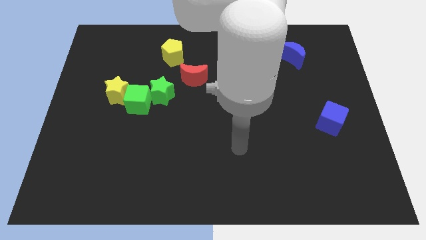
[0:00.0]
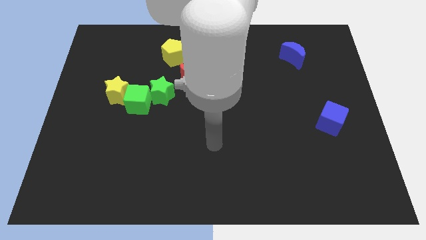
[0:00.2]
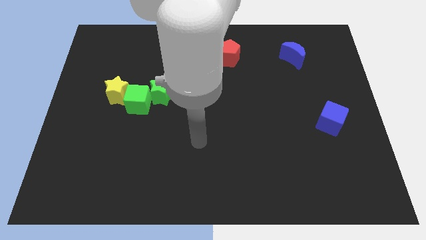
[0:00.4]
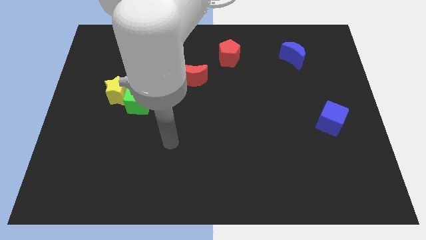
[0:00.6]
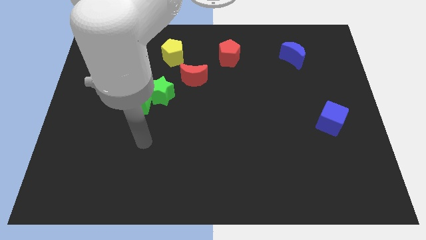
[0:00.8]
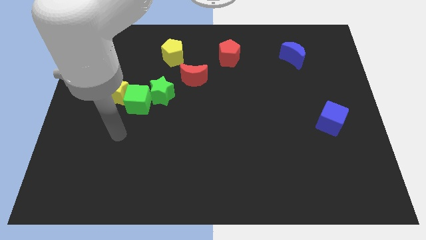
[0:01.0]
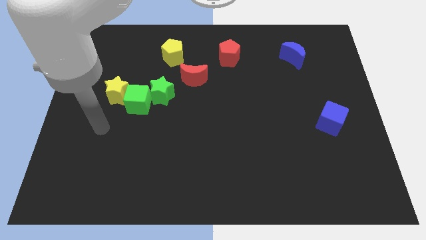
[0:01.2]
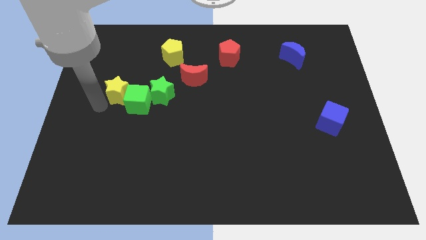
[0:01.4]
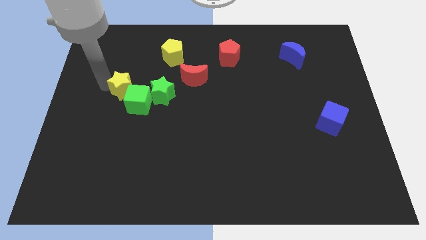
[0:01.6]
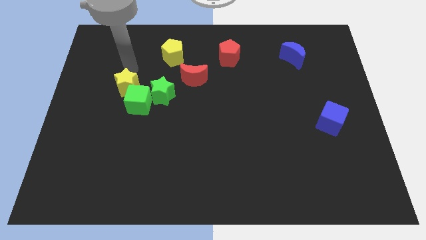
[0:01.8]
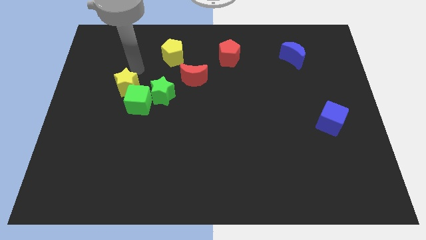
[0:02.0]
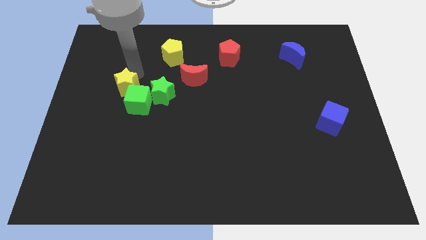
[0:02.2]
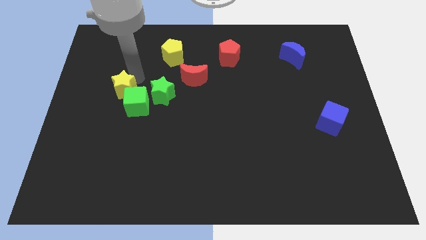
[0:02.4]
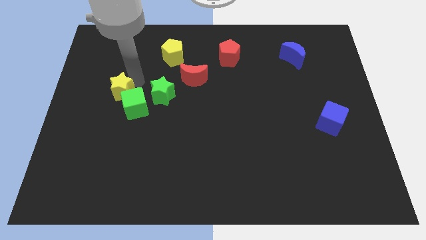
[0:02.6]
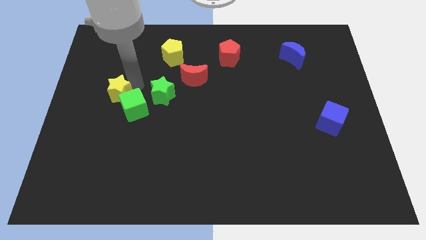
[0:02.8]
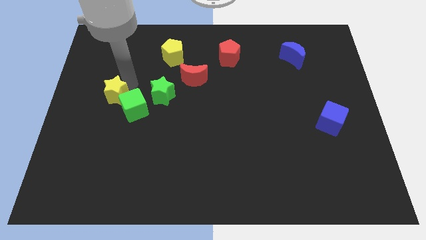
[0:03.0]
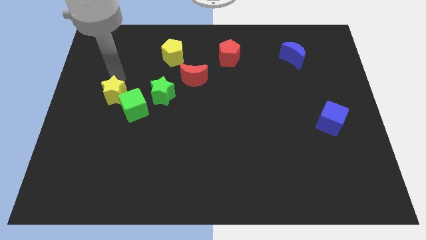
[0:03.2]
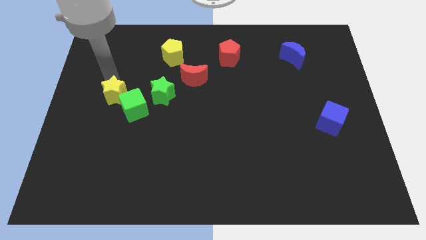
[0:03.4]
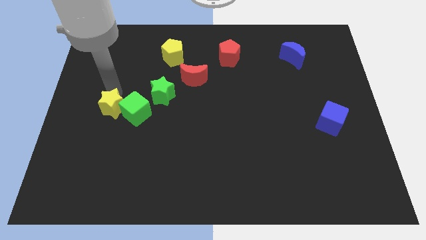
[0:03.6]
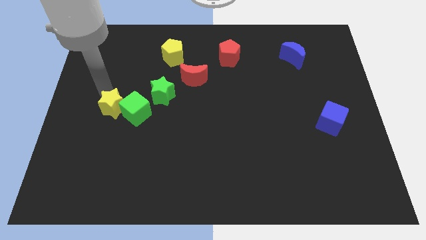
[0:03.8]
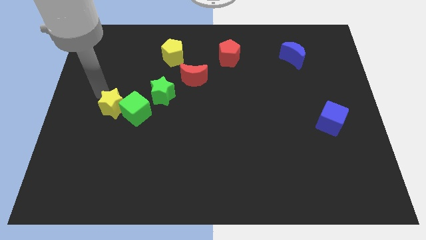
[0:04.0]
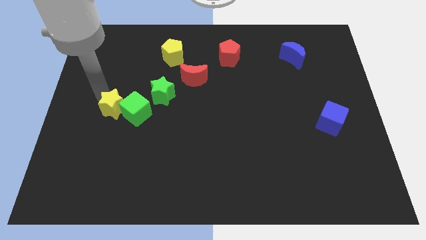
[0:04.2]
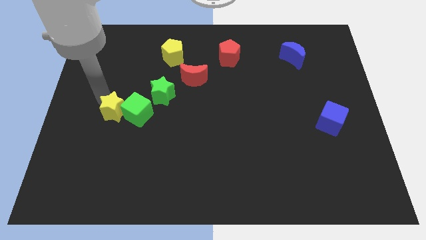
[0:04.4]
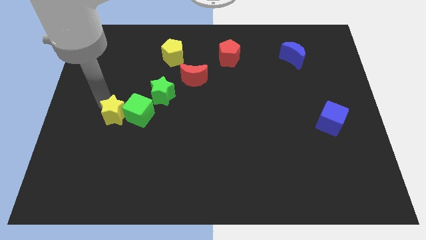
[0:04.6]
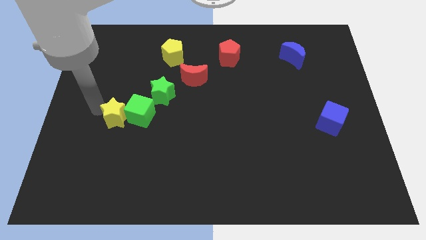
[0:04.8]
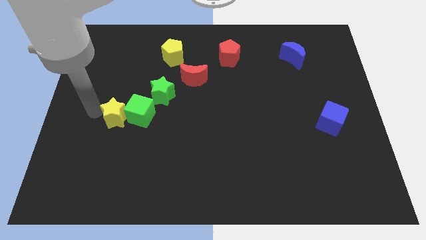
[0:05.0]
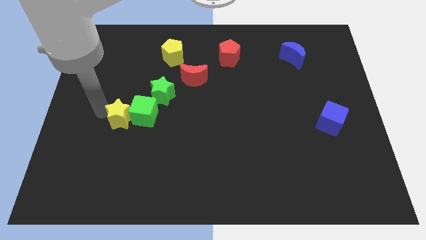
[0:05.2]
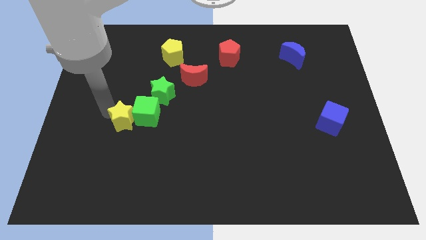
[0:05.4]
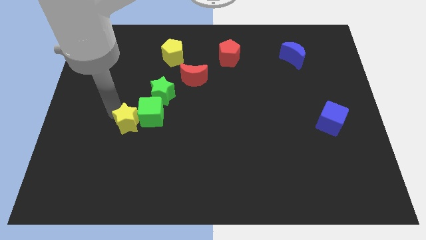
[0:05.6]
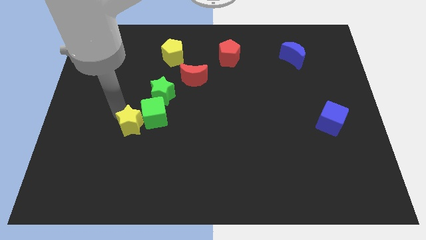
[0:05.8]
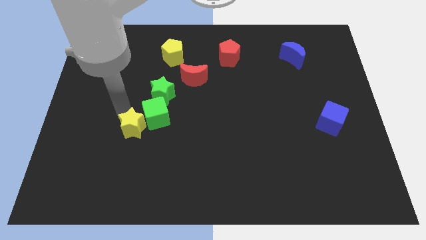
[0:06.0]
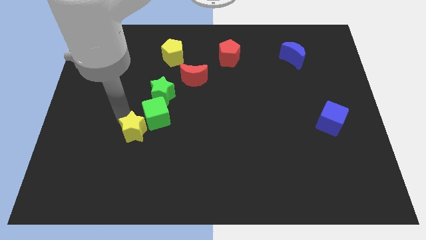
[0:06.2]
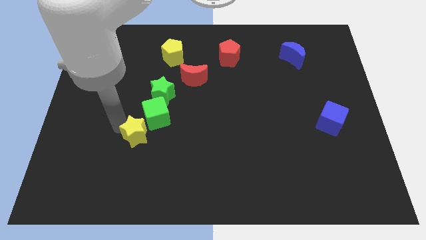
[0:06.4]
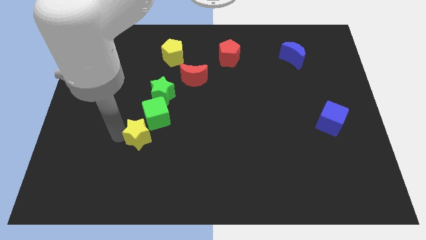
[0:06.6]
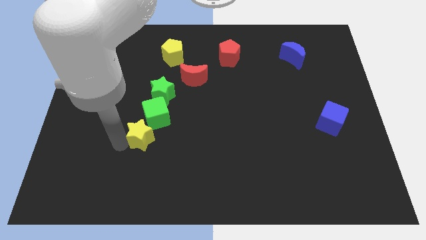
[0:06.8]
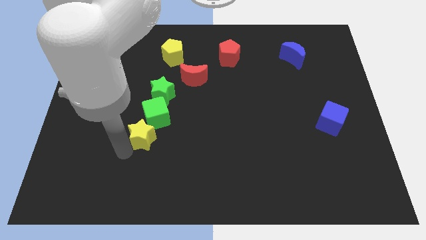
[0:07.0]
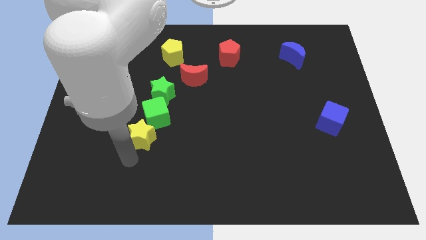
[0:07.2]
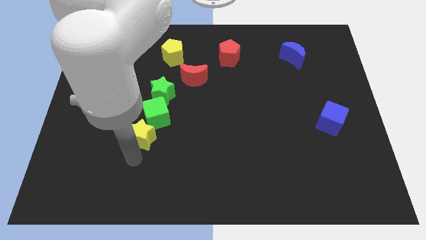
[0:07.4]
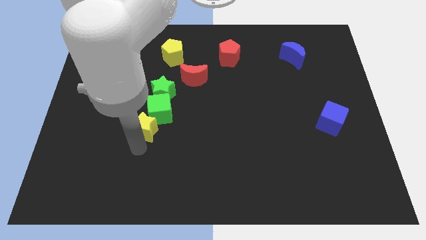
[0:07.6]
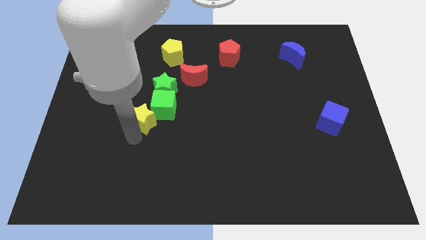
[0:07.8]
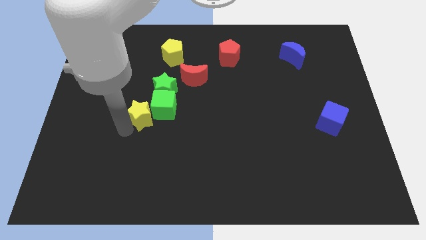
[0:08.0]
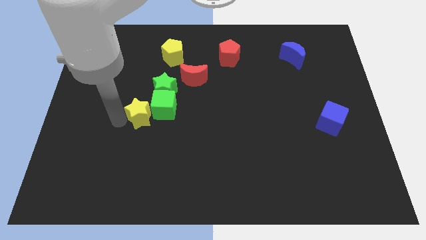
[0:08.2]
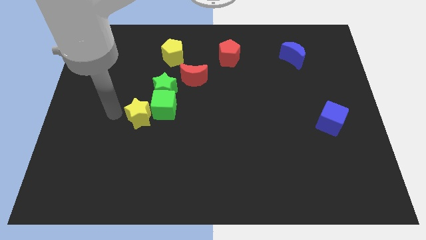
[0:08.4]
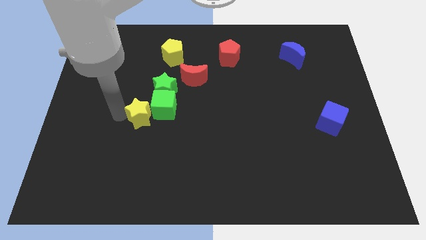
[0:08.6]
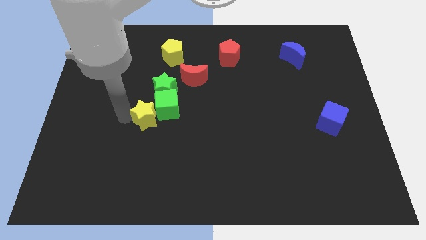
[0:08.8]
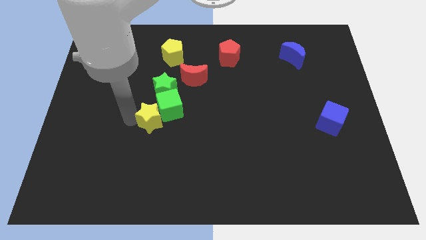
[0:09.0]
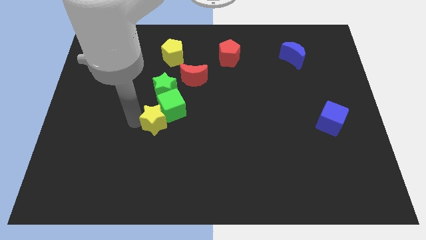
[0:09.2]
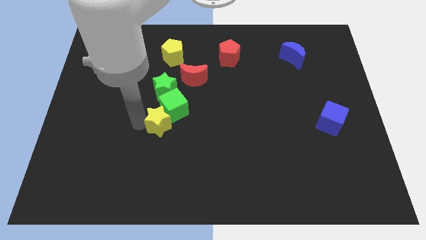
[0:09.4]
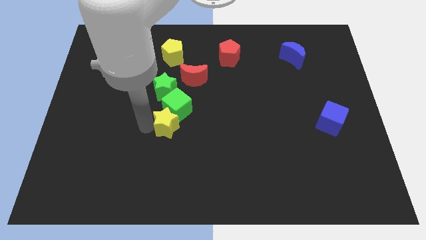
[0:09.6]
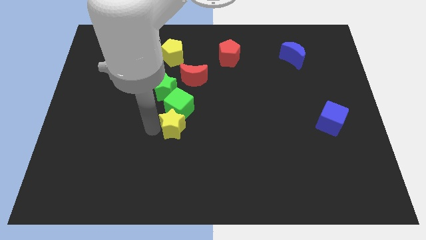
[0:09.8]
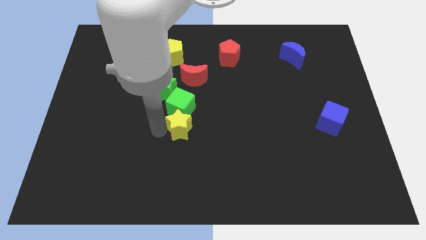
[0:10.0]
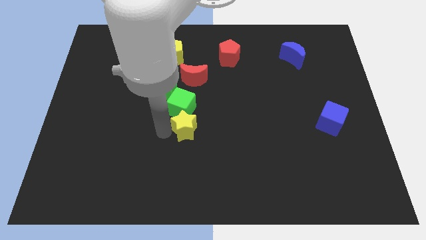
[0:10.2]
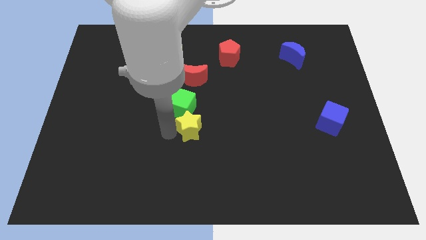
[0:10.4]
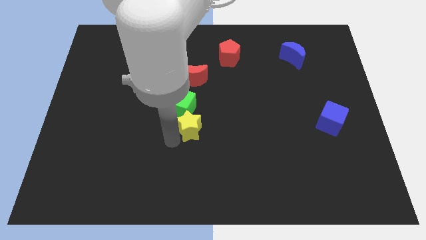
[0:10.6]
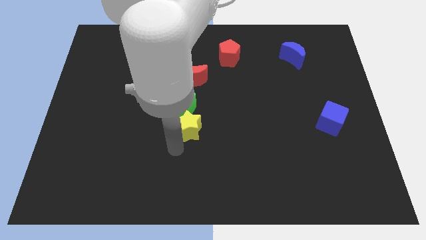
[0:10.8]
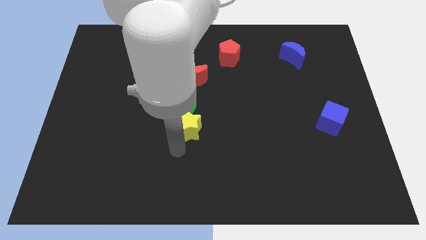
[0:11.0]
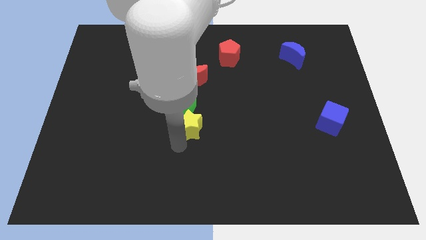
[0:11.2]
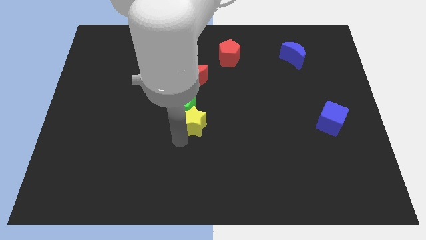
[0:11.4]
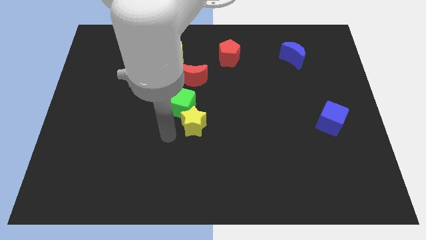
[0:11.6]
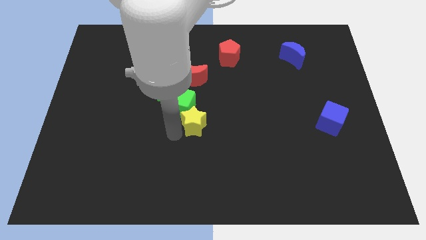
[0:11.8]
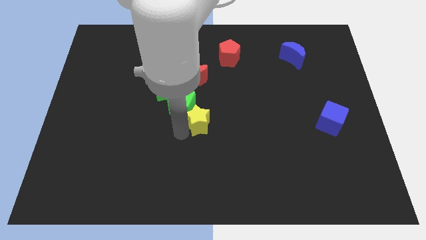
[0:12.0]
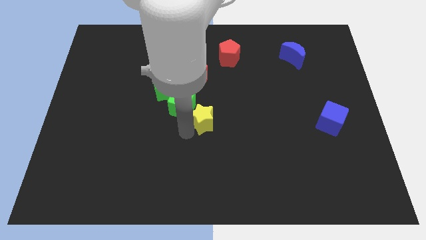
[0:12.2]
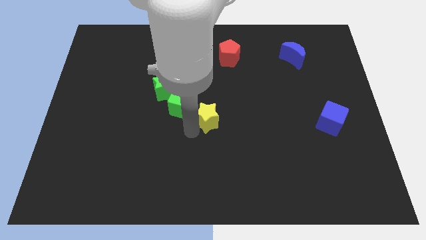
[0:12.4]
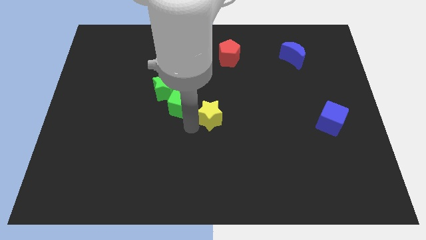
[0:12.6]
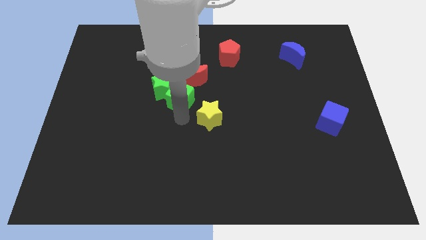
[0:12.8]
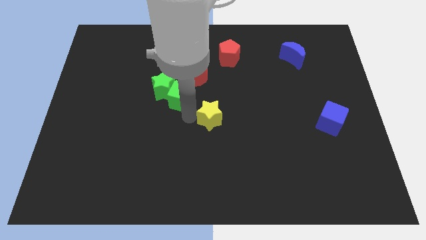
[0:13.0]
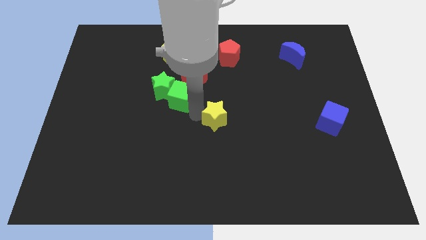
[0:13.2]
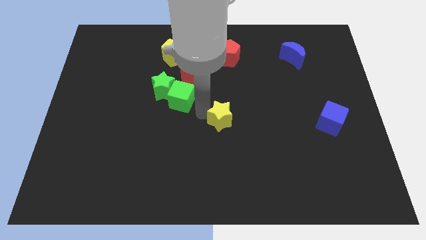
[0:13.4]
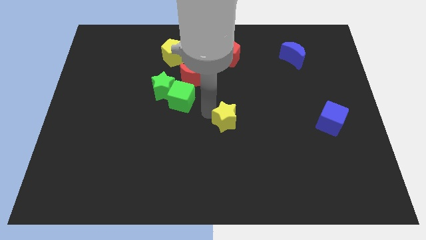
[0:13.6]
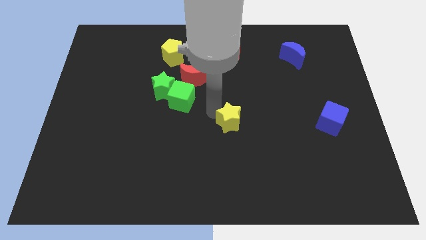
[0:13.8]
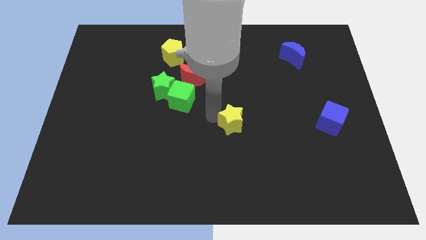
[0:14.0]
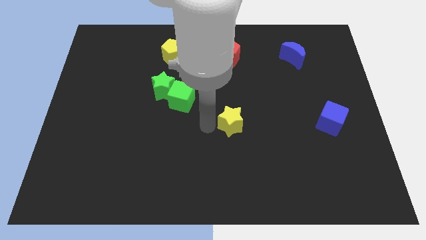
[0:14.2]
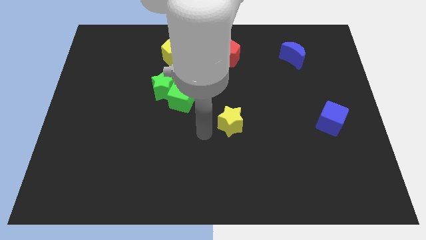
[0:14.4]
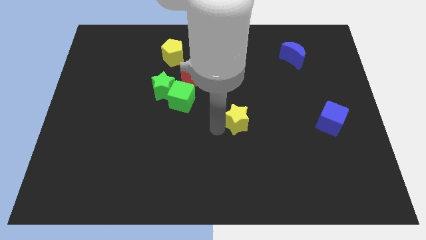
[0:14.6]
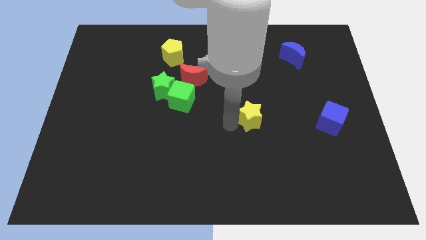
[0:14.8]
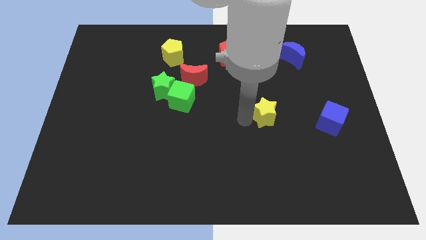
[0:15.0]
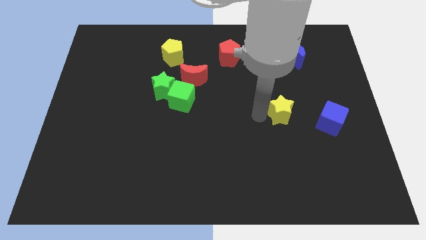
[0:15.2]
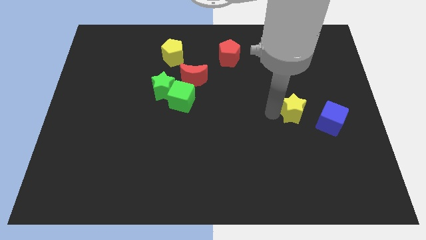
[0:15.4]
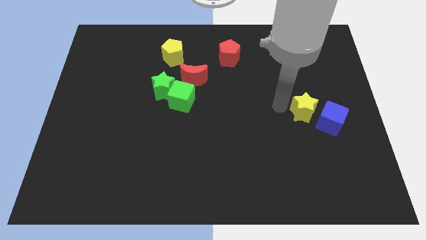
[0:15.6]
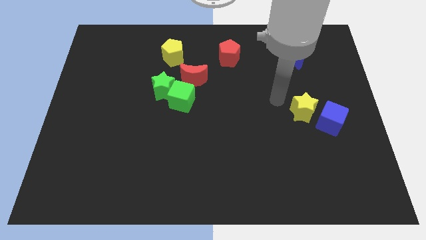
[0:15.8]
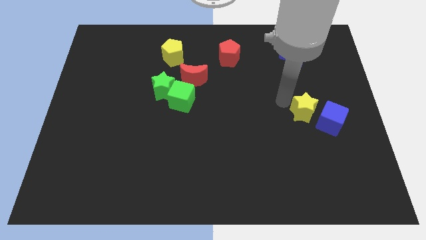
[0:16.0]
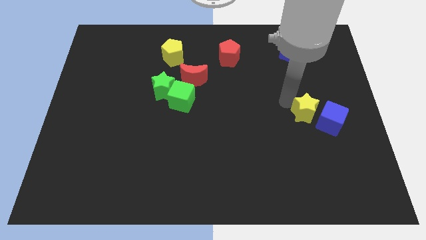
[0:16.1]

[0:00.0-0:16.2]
slide the yellow star close to the blue cube
